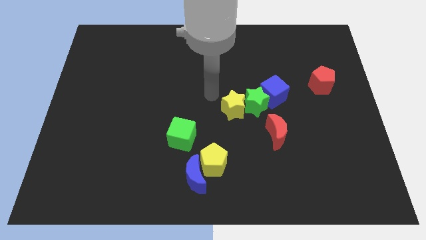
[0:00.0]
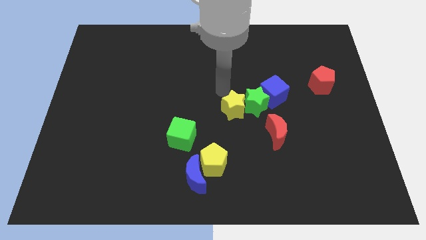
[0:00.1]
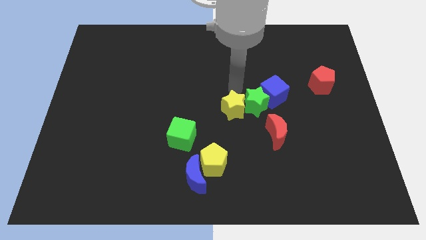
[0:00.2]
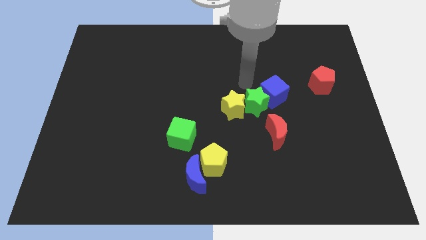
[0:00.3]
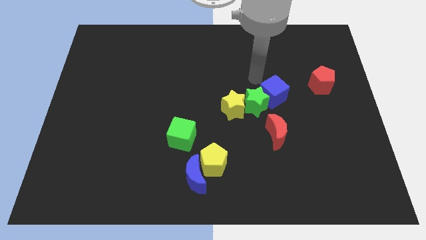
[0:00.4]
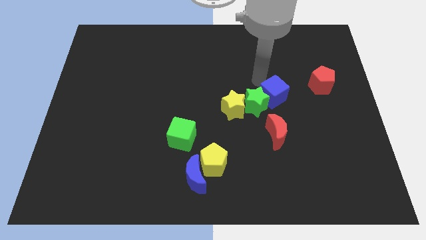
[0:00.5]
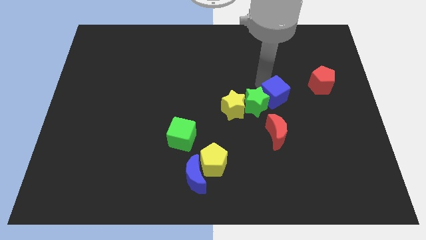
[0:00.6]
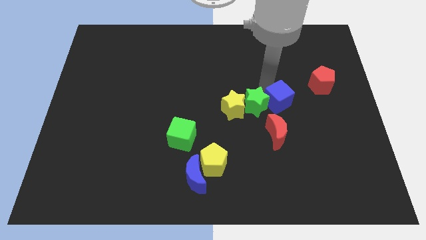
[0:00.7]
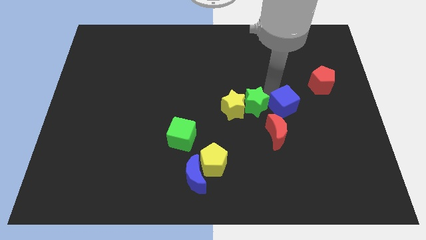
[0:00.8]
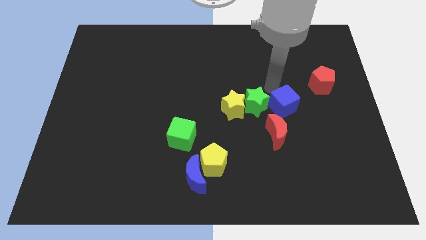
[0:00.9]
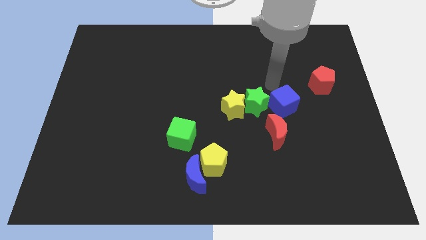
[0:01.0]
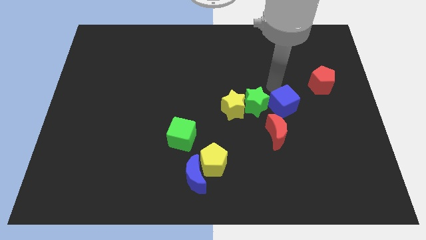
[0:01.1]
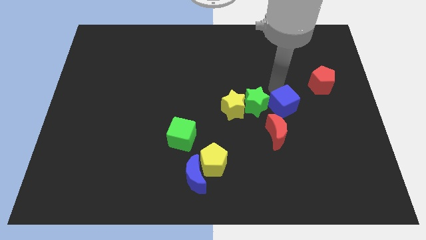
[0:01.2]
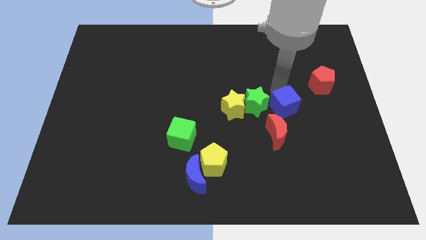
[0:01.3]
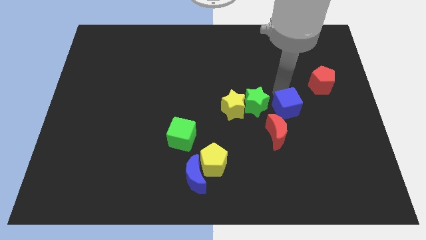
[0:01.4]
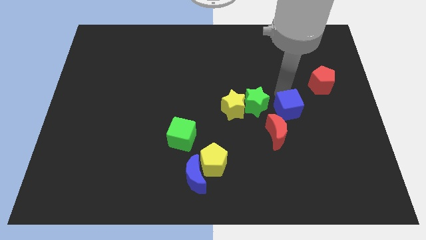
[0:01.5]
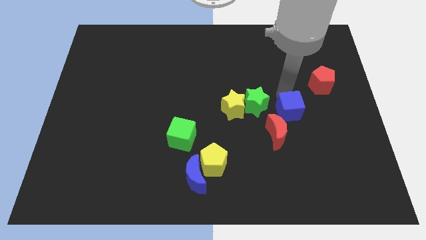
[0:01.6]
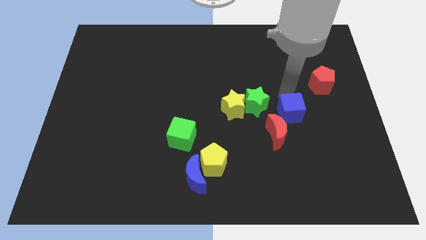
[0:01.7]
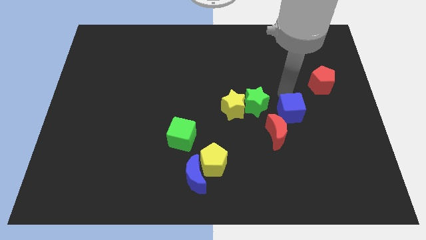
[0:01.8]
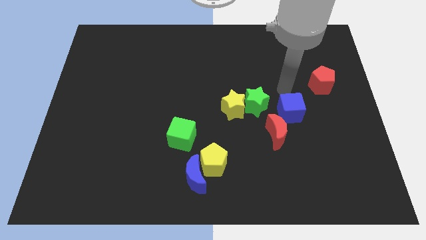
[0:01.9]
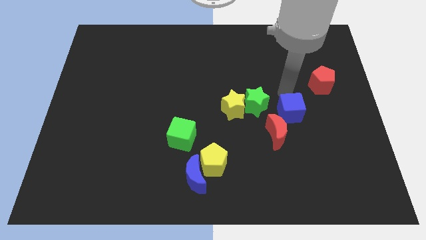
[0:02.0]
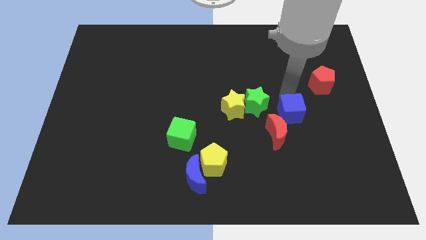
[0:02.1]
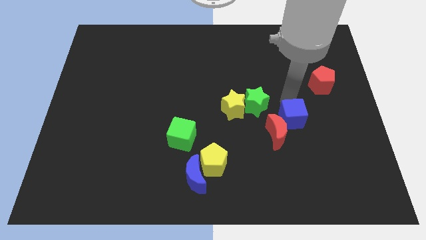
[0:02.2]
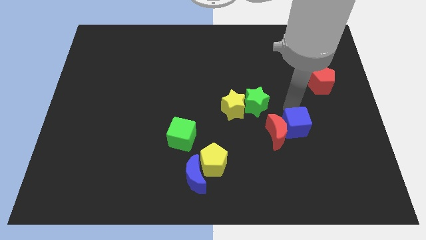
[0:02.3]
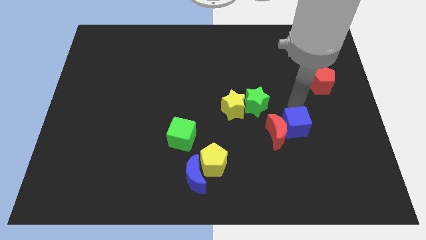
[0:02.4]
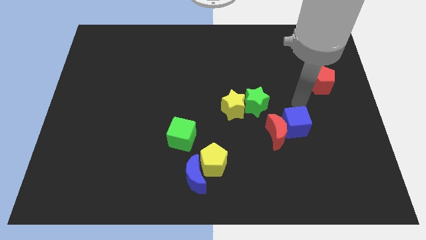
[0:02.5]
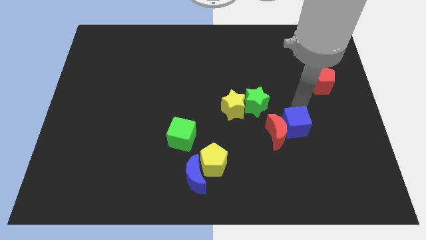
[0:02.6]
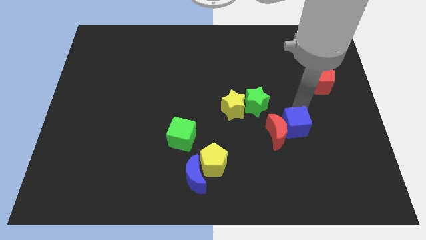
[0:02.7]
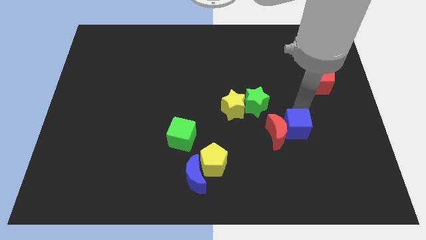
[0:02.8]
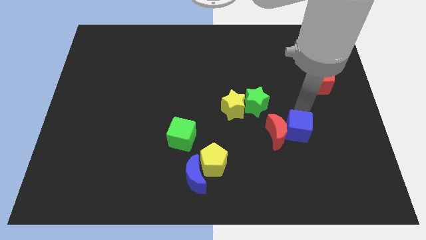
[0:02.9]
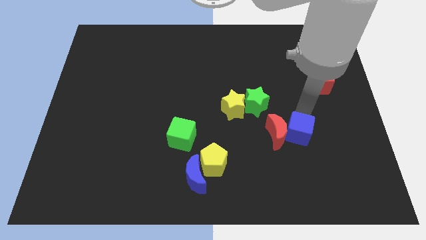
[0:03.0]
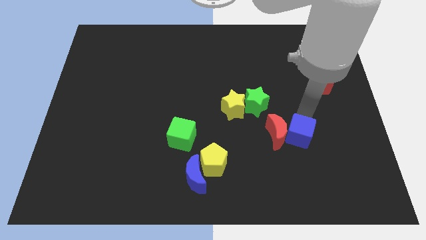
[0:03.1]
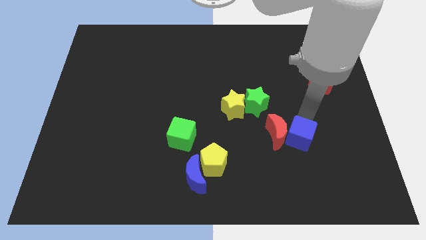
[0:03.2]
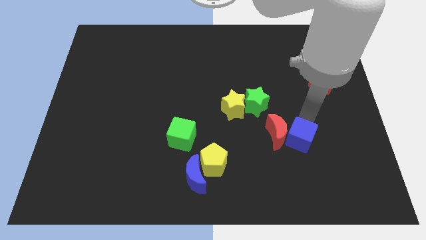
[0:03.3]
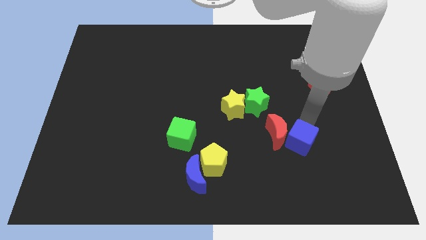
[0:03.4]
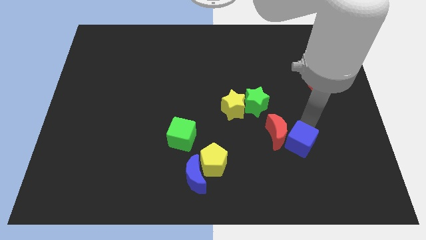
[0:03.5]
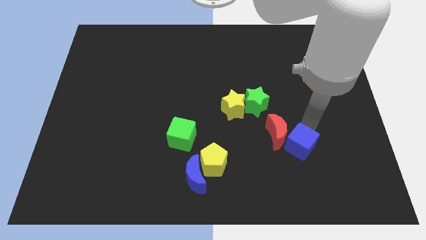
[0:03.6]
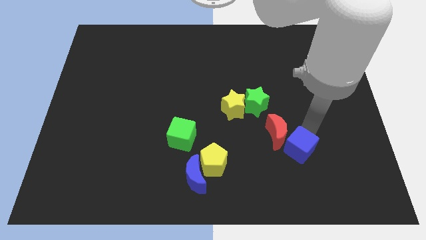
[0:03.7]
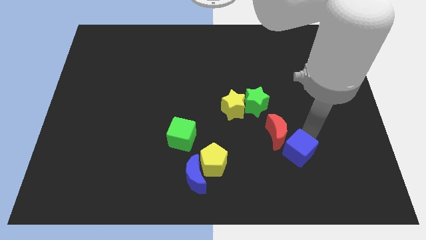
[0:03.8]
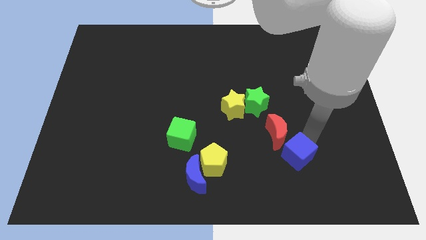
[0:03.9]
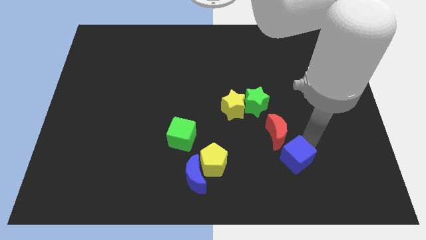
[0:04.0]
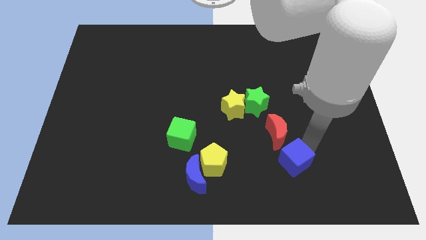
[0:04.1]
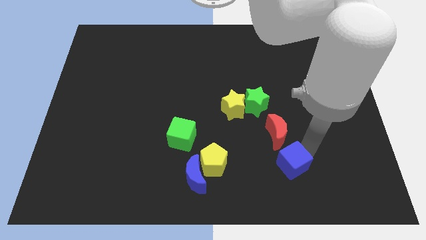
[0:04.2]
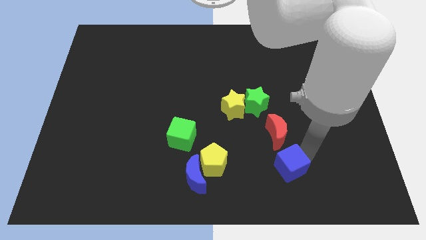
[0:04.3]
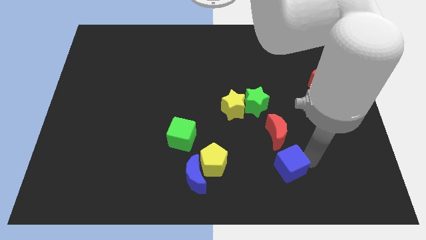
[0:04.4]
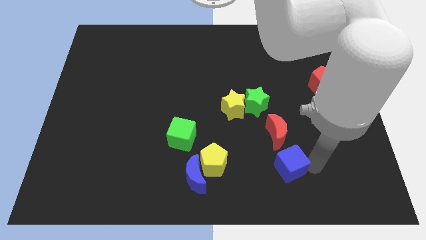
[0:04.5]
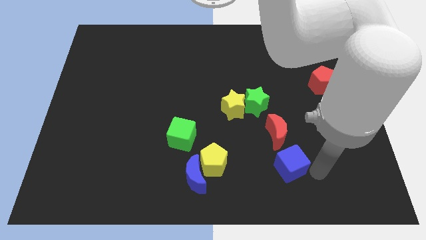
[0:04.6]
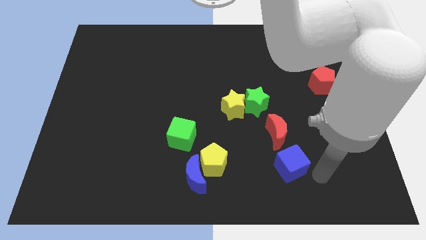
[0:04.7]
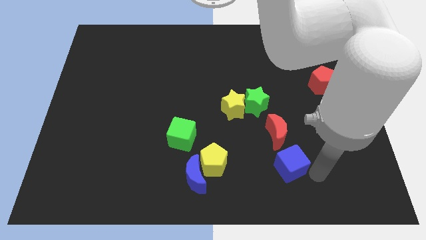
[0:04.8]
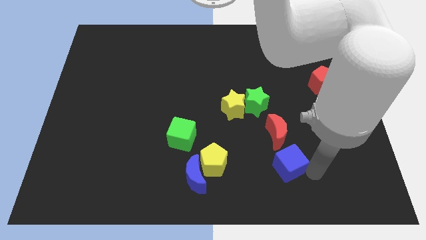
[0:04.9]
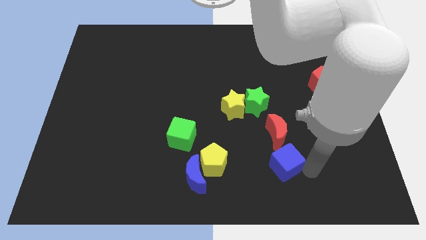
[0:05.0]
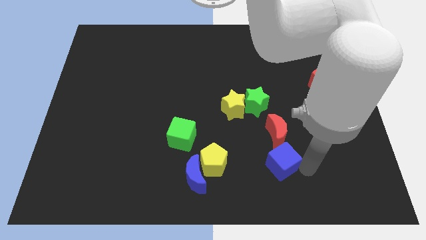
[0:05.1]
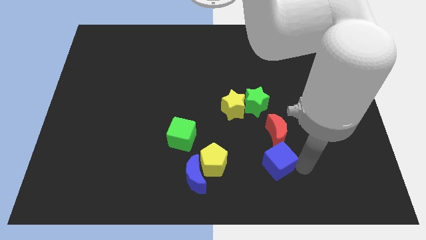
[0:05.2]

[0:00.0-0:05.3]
move the blue cube to the bottom left of the red moon
